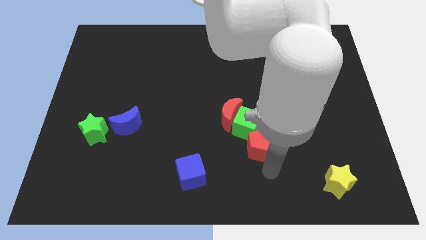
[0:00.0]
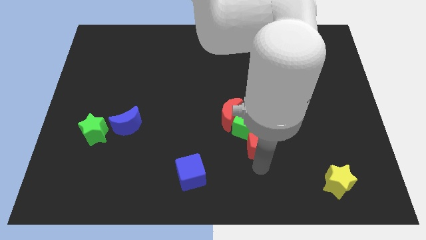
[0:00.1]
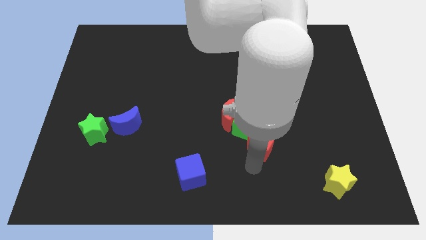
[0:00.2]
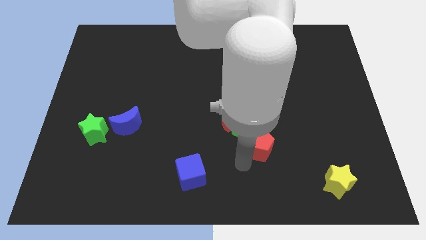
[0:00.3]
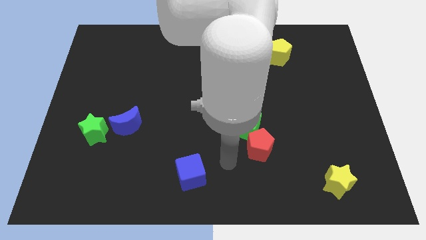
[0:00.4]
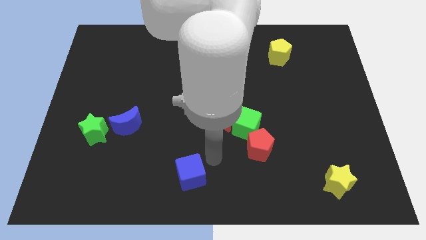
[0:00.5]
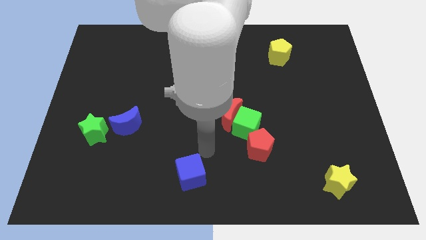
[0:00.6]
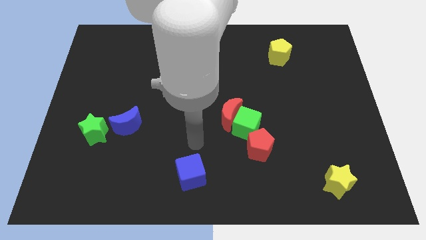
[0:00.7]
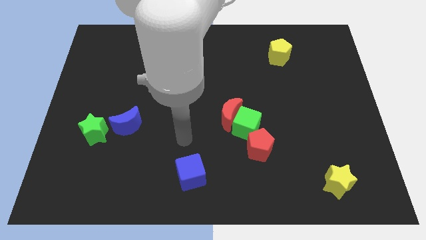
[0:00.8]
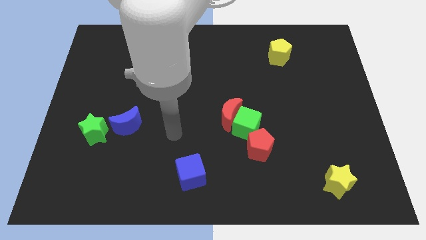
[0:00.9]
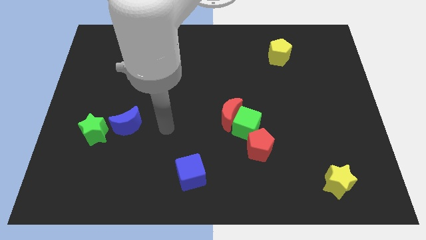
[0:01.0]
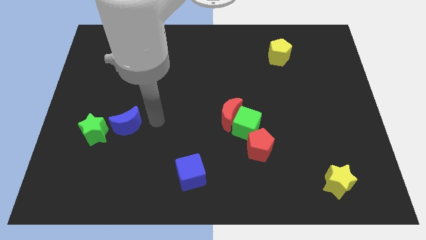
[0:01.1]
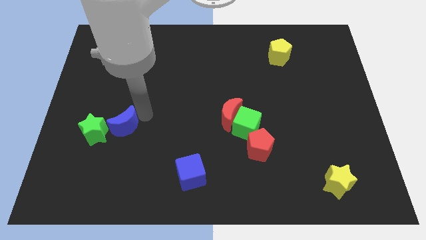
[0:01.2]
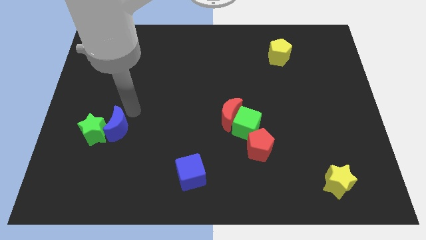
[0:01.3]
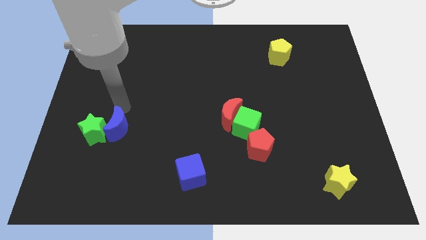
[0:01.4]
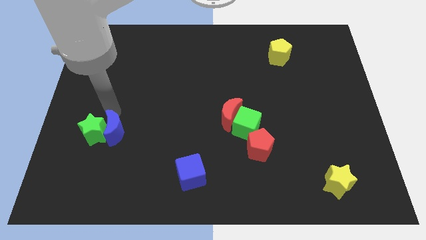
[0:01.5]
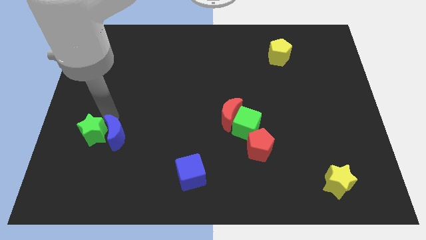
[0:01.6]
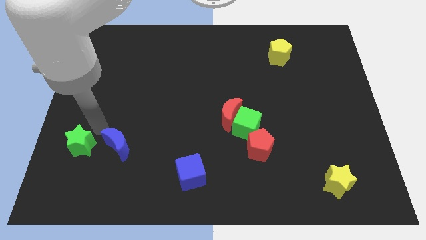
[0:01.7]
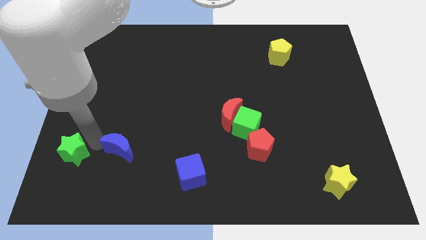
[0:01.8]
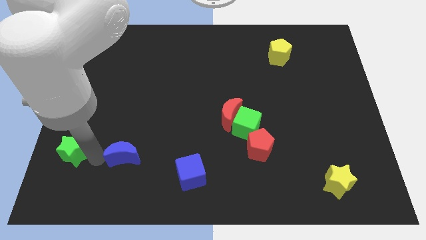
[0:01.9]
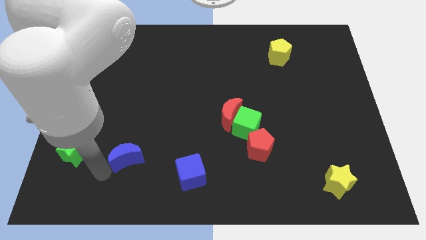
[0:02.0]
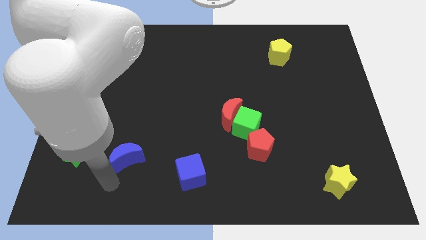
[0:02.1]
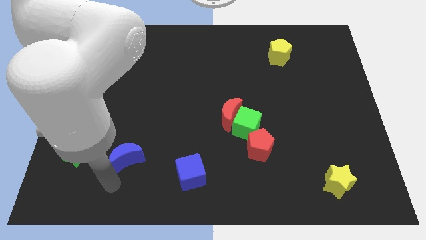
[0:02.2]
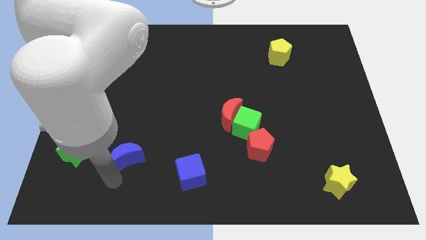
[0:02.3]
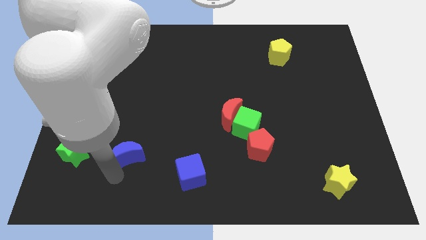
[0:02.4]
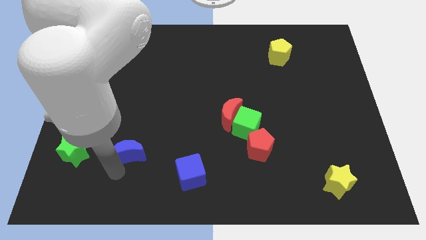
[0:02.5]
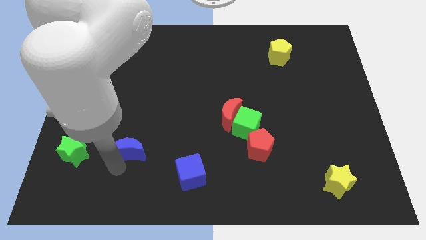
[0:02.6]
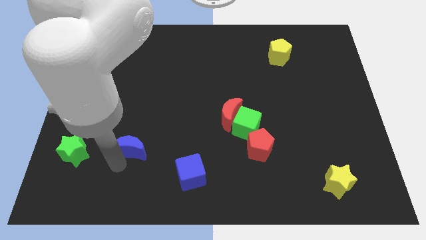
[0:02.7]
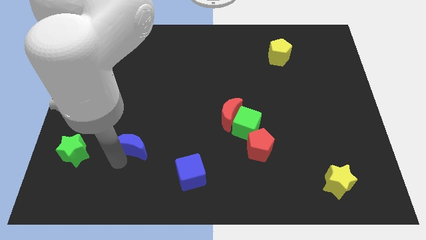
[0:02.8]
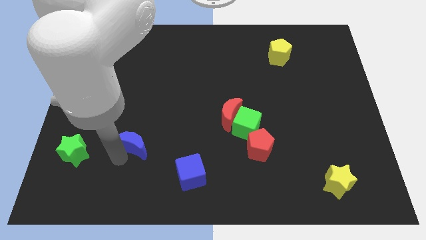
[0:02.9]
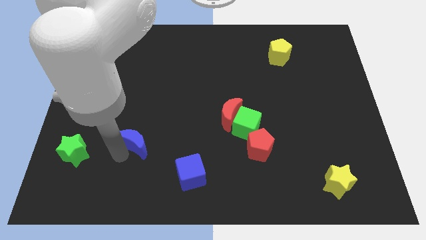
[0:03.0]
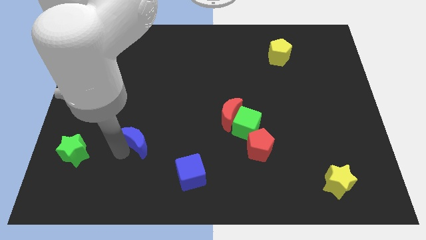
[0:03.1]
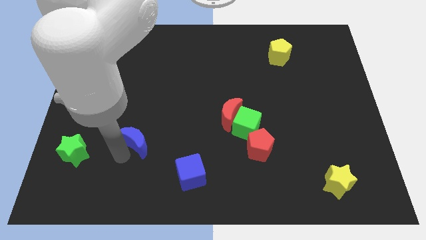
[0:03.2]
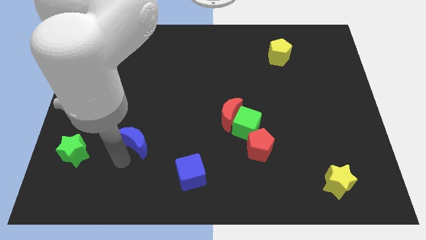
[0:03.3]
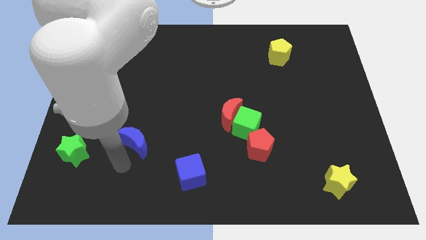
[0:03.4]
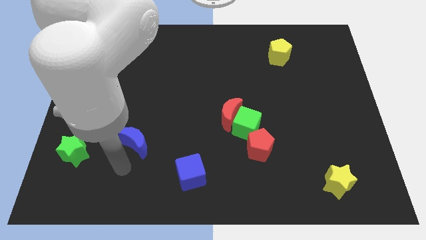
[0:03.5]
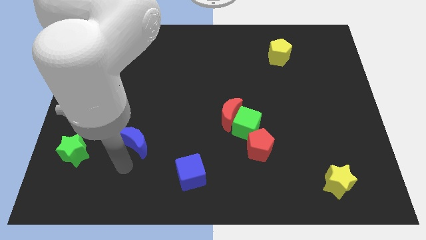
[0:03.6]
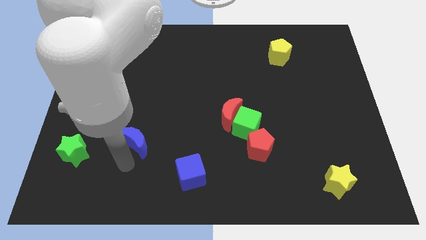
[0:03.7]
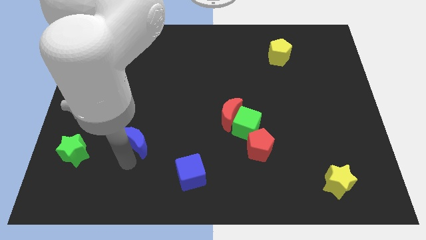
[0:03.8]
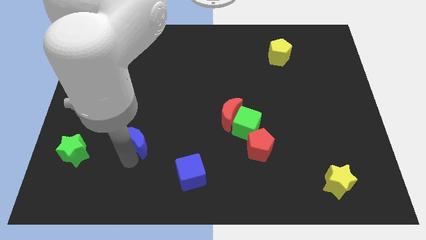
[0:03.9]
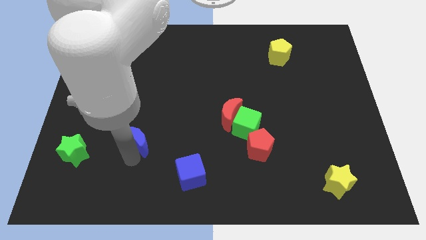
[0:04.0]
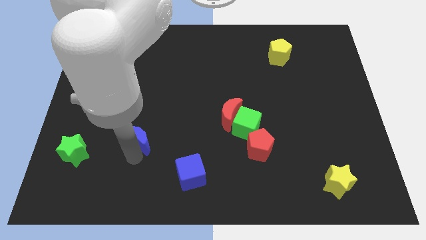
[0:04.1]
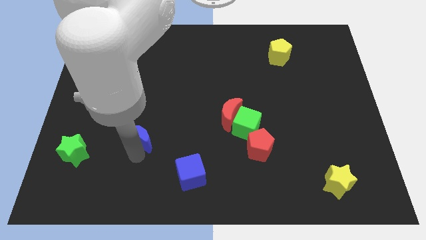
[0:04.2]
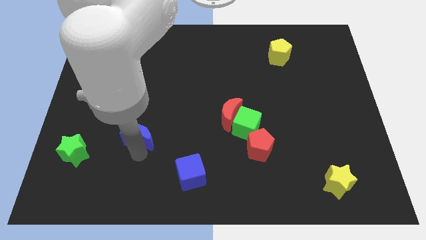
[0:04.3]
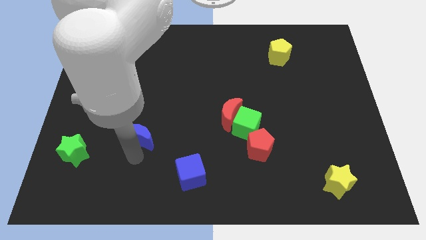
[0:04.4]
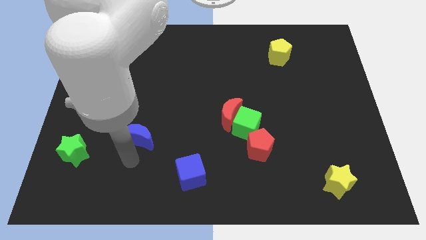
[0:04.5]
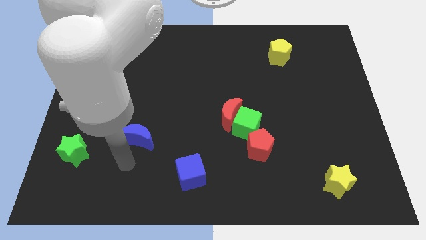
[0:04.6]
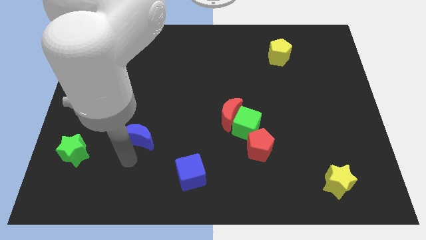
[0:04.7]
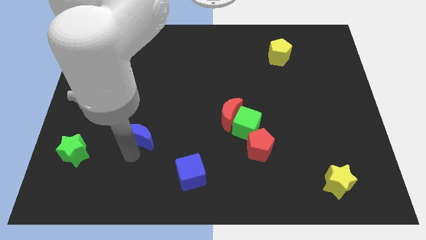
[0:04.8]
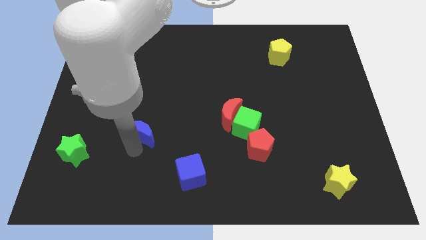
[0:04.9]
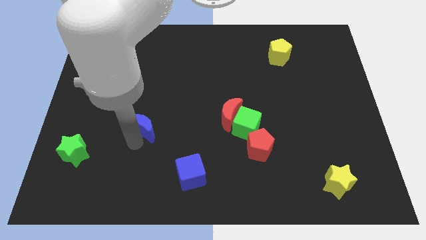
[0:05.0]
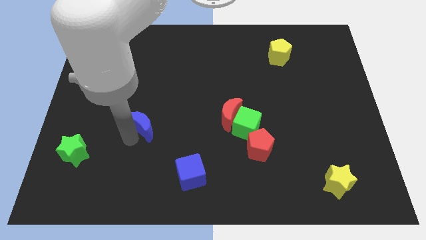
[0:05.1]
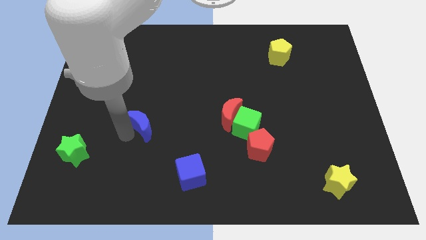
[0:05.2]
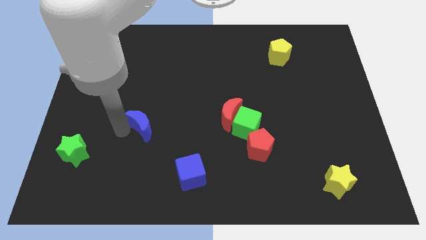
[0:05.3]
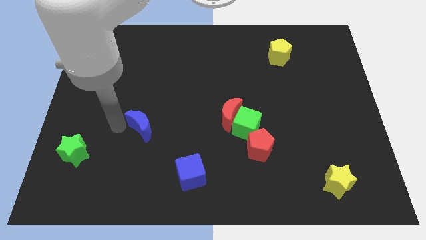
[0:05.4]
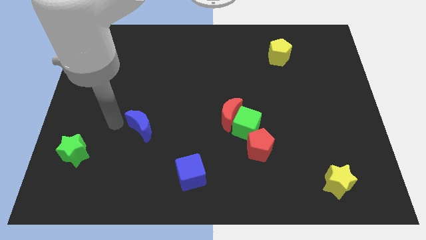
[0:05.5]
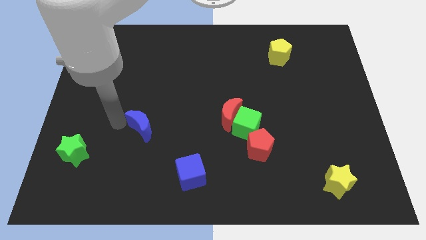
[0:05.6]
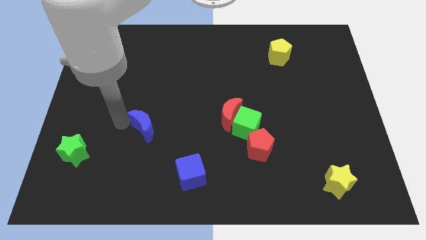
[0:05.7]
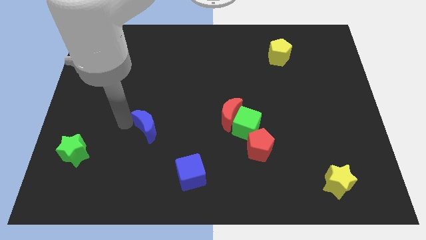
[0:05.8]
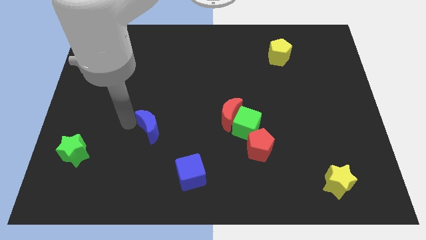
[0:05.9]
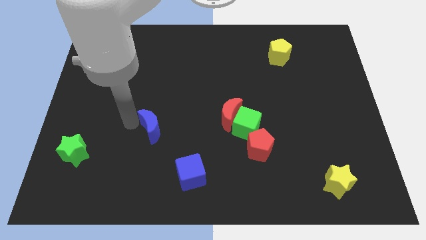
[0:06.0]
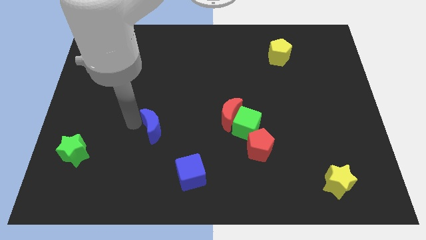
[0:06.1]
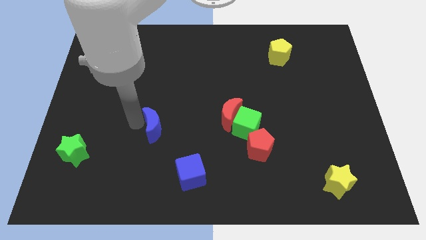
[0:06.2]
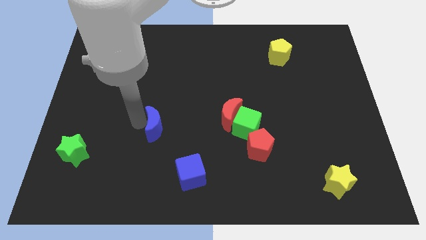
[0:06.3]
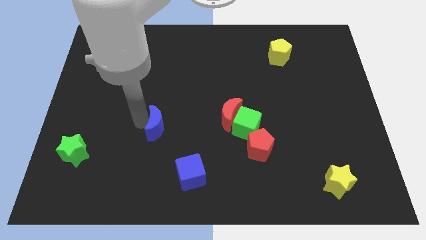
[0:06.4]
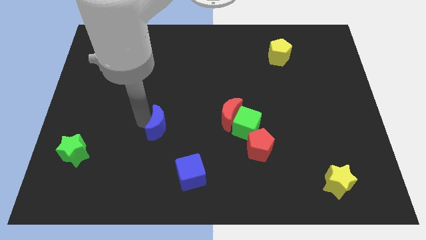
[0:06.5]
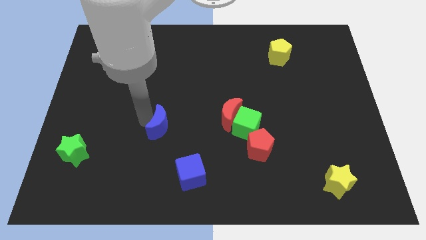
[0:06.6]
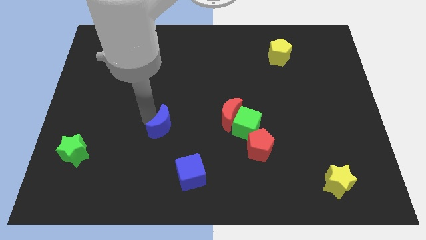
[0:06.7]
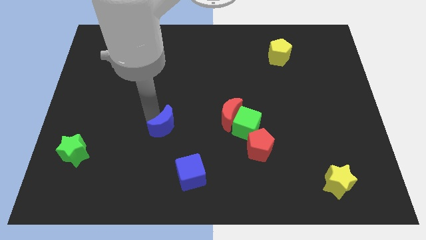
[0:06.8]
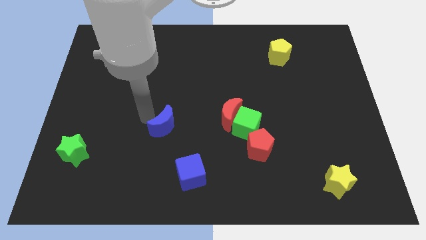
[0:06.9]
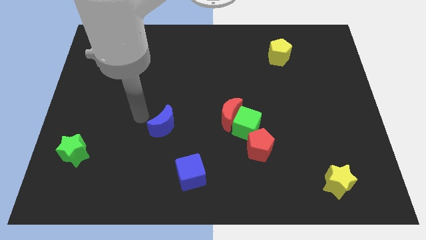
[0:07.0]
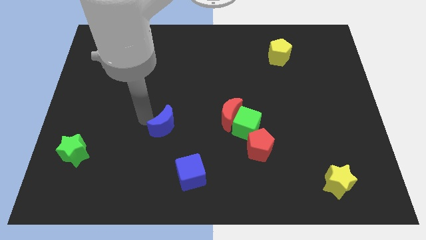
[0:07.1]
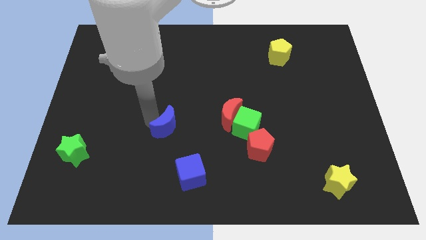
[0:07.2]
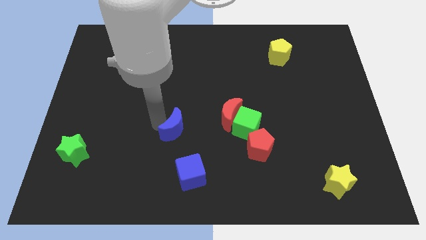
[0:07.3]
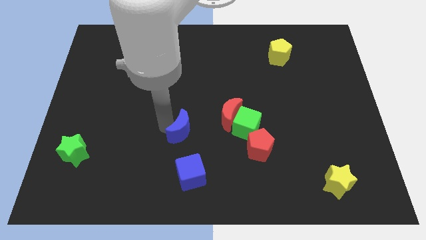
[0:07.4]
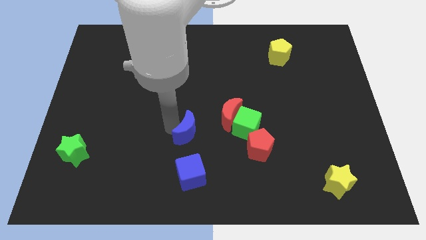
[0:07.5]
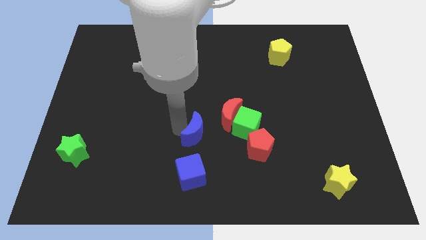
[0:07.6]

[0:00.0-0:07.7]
push the blue moon just left of the red pentagon

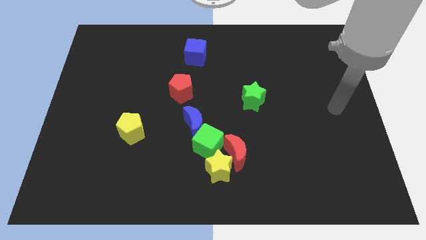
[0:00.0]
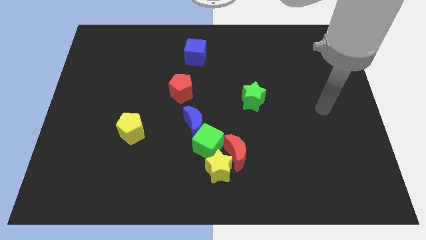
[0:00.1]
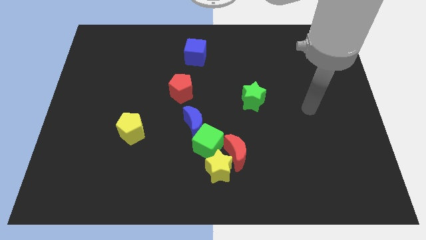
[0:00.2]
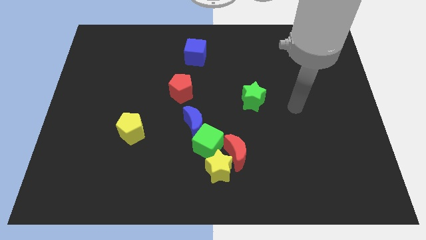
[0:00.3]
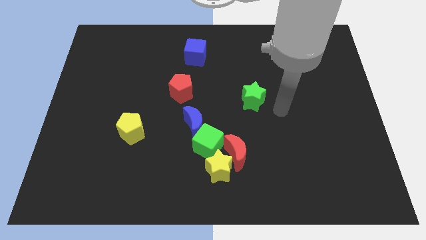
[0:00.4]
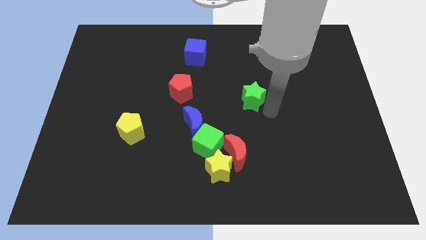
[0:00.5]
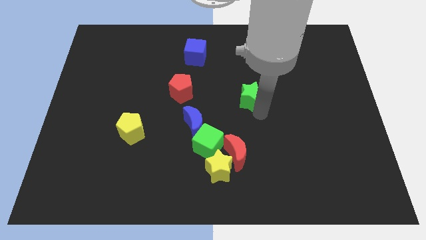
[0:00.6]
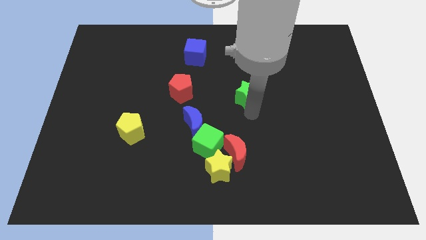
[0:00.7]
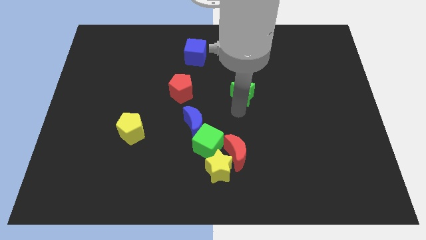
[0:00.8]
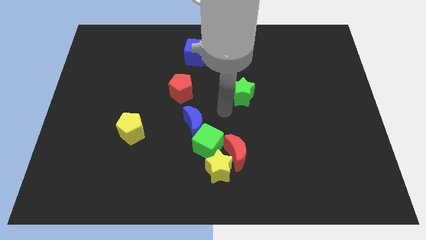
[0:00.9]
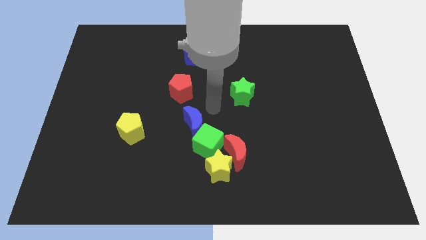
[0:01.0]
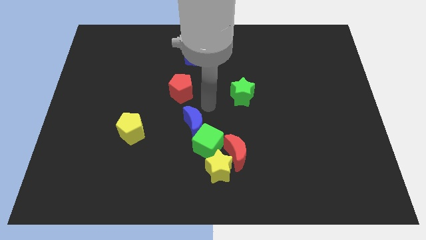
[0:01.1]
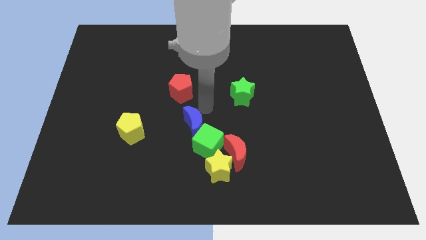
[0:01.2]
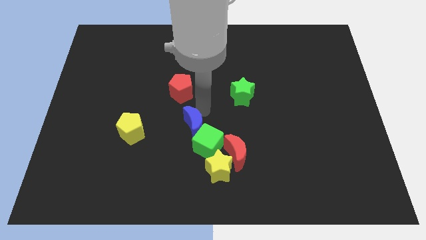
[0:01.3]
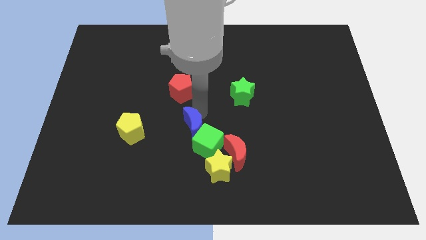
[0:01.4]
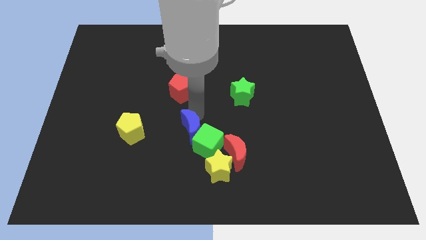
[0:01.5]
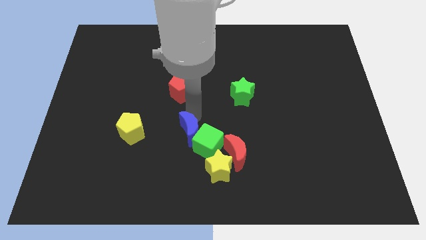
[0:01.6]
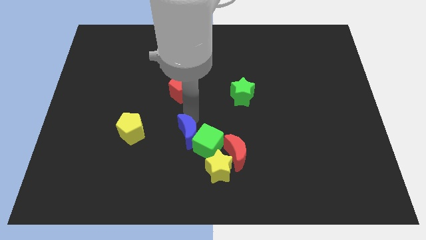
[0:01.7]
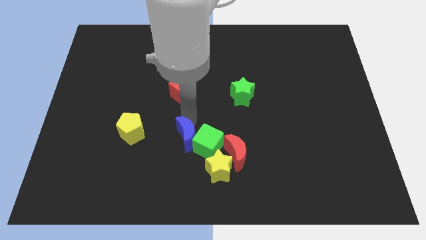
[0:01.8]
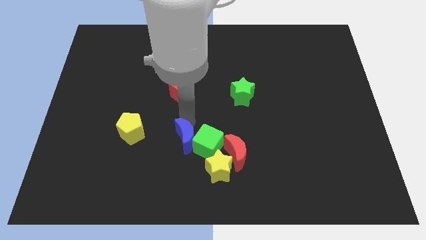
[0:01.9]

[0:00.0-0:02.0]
put the blue moon to the bottom left of the green cube
